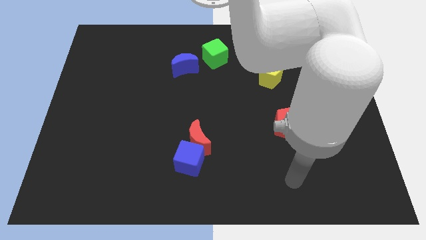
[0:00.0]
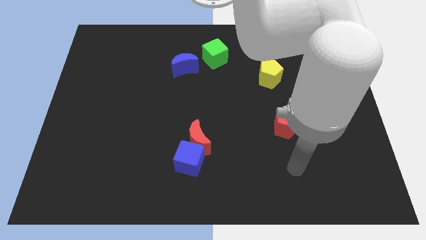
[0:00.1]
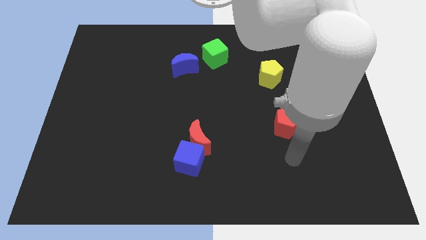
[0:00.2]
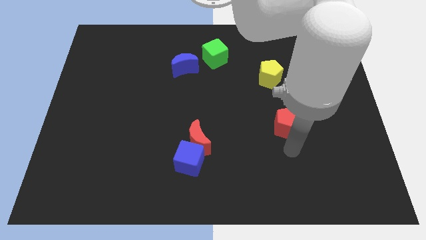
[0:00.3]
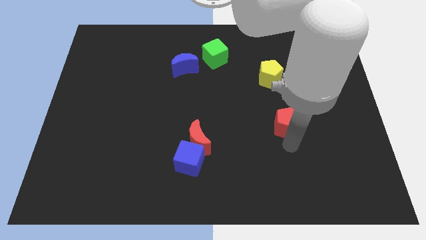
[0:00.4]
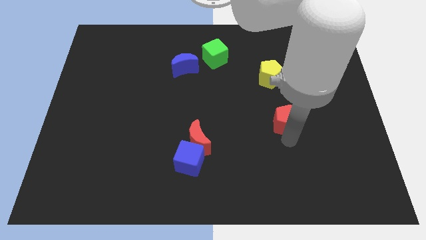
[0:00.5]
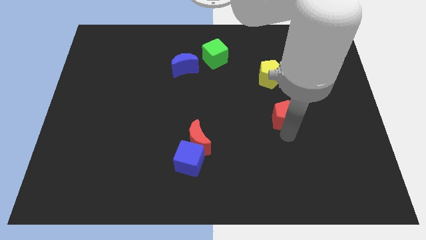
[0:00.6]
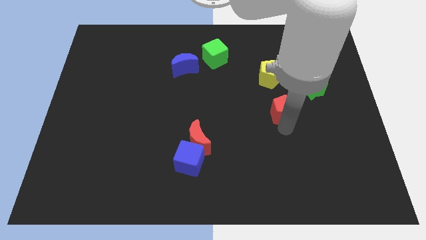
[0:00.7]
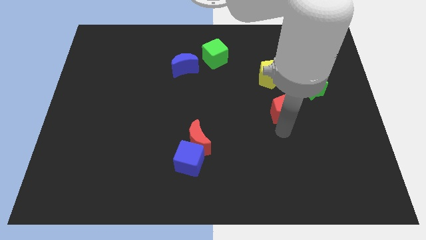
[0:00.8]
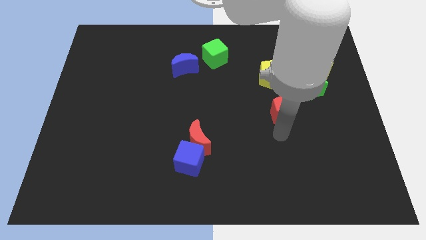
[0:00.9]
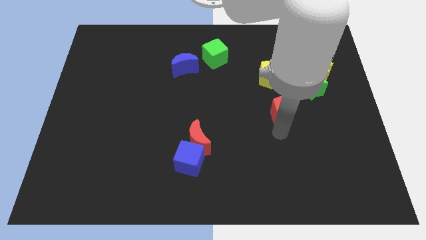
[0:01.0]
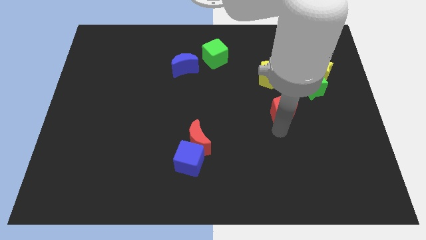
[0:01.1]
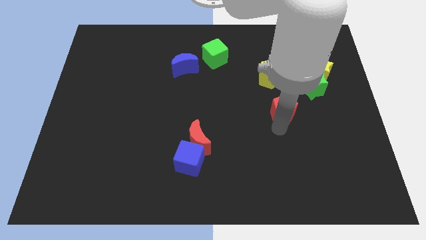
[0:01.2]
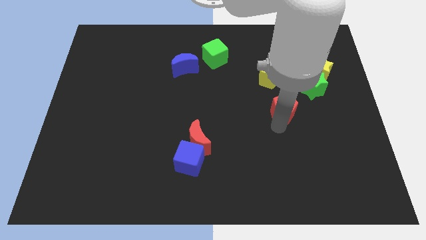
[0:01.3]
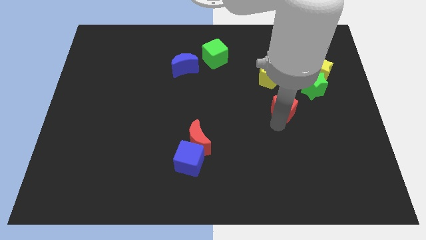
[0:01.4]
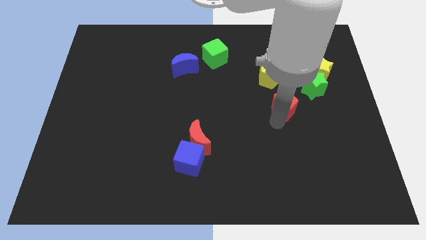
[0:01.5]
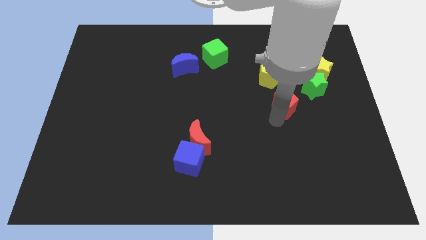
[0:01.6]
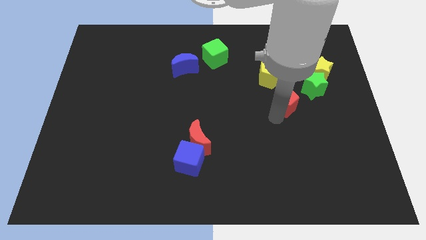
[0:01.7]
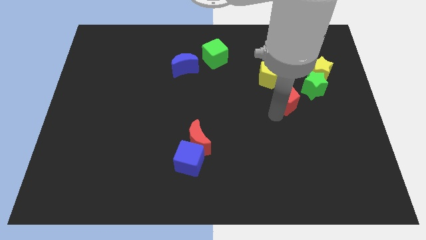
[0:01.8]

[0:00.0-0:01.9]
move the red pentagon upwards somewhat

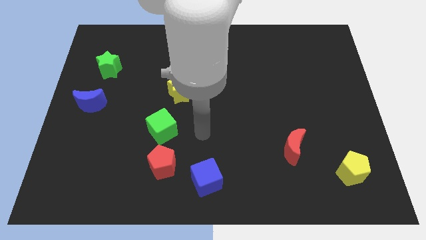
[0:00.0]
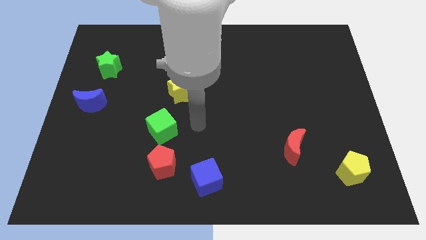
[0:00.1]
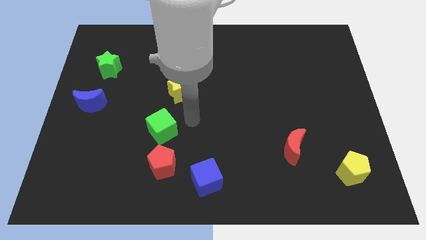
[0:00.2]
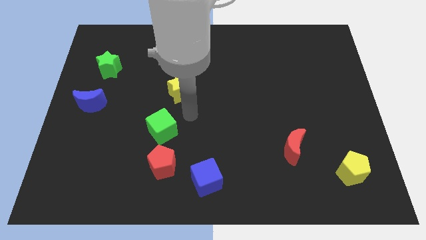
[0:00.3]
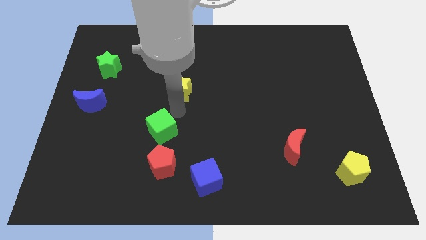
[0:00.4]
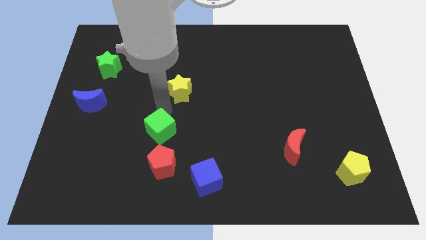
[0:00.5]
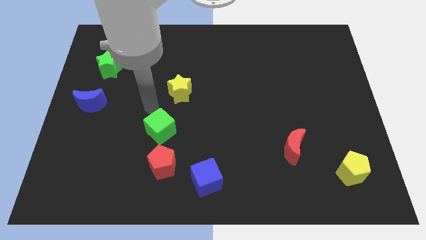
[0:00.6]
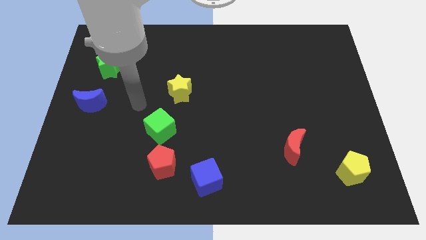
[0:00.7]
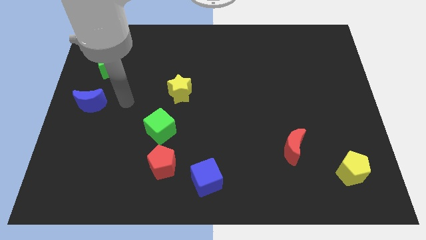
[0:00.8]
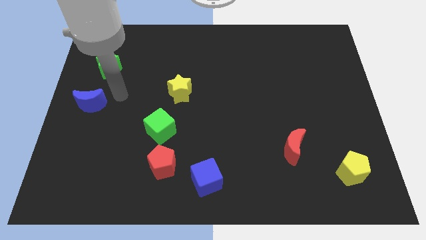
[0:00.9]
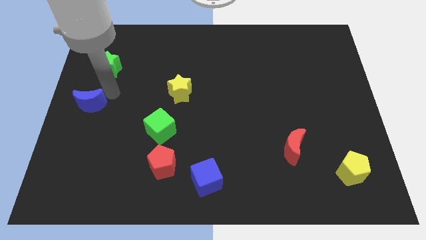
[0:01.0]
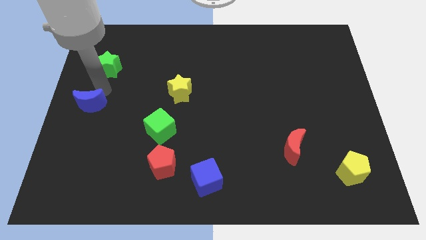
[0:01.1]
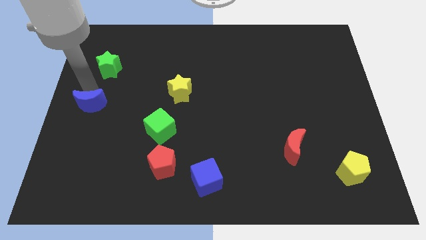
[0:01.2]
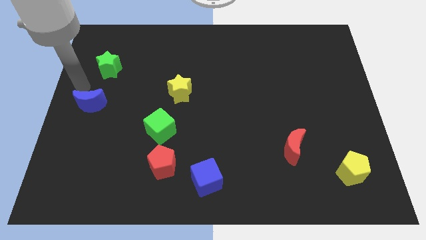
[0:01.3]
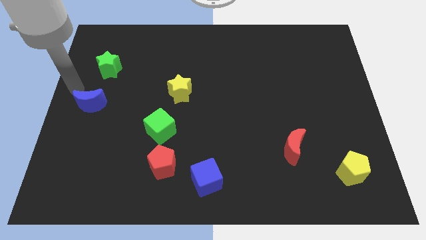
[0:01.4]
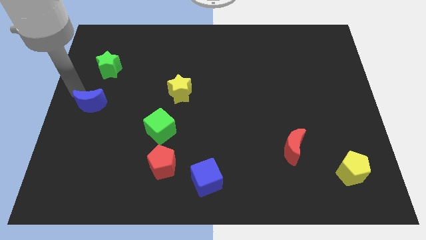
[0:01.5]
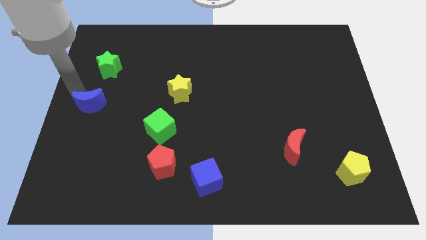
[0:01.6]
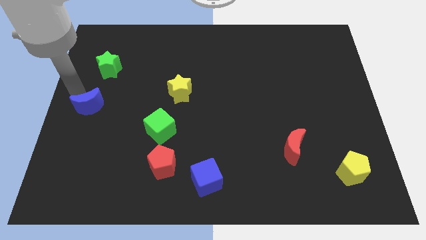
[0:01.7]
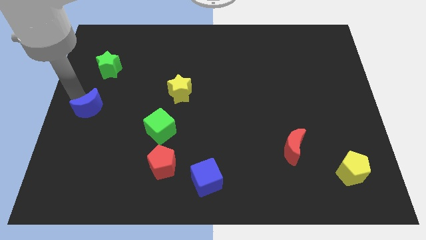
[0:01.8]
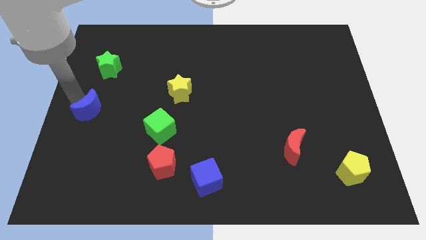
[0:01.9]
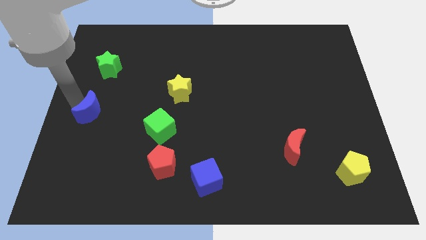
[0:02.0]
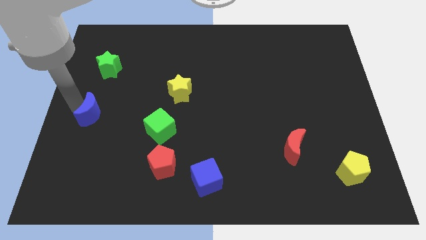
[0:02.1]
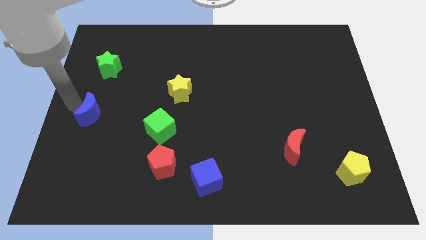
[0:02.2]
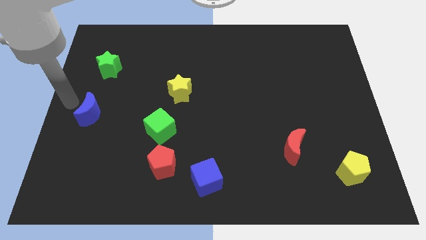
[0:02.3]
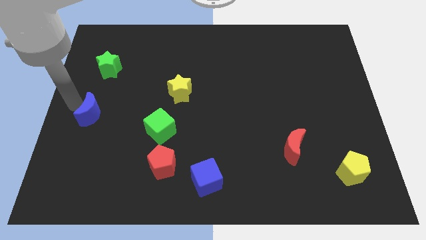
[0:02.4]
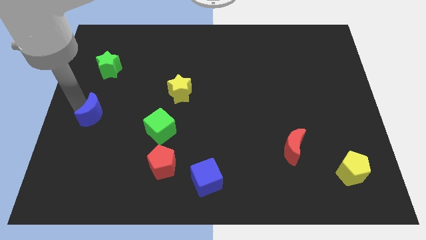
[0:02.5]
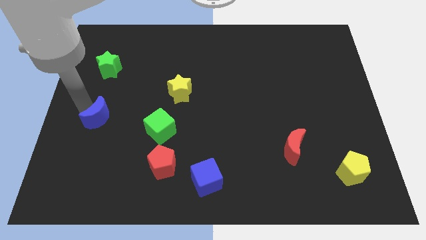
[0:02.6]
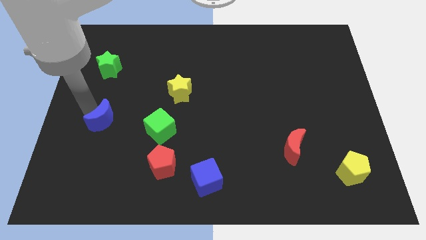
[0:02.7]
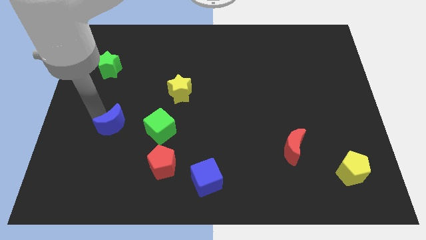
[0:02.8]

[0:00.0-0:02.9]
slightly push the blue moon downwards and then to the right

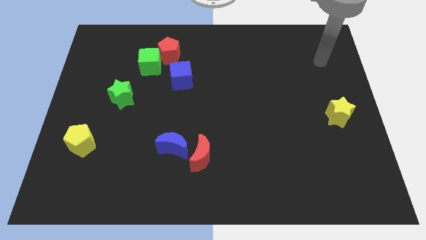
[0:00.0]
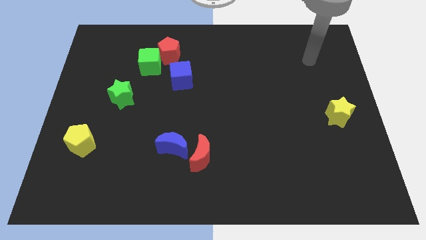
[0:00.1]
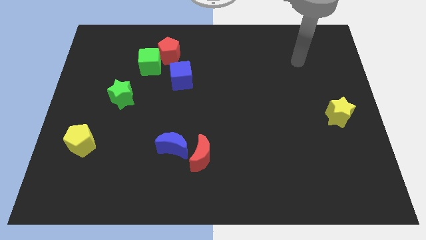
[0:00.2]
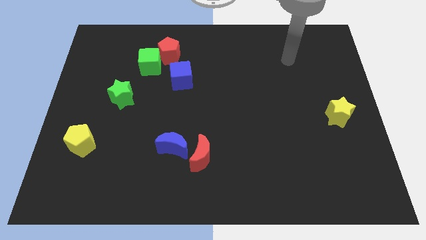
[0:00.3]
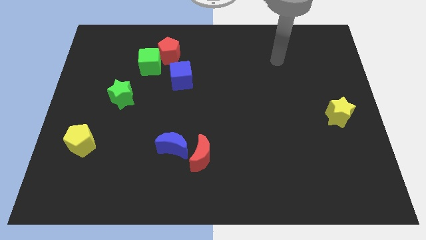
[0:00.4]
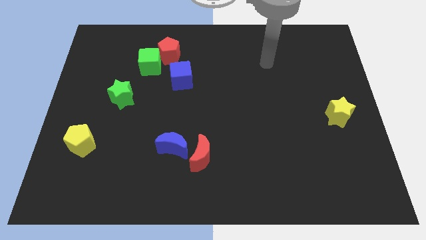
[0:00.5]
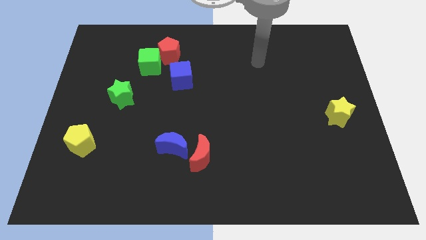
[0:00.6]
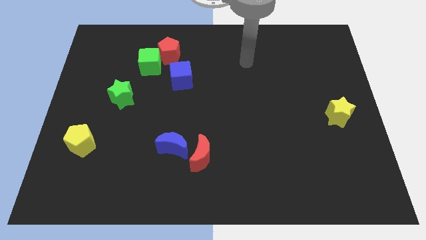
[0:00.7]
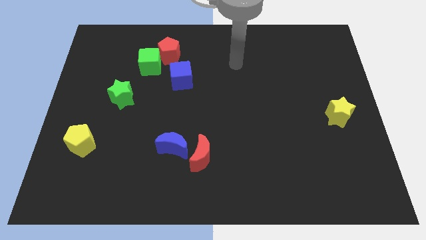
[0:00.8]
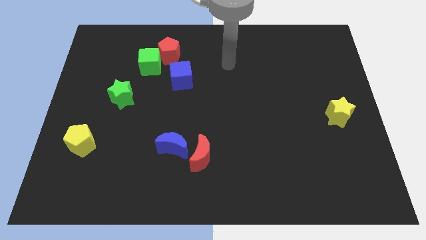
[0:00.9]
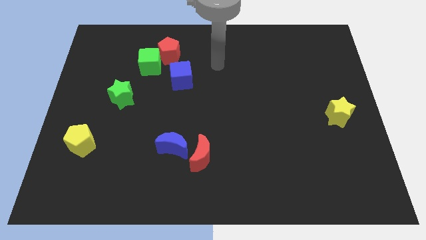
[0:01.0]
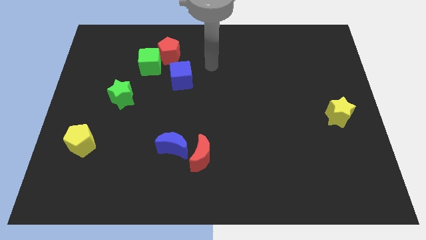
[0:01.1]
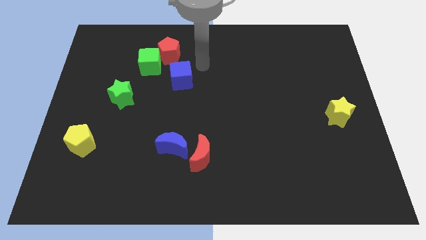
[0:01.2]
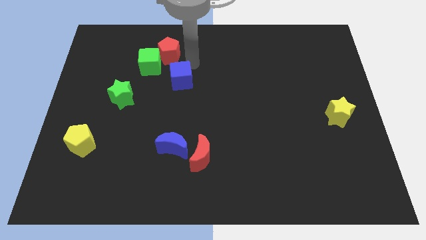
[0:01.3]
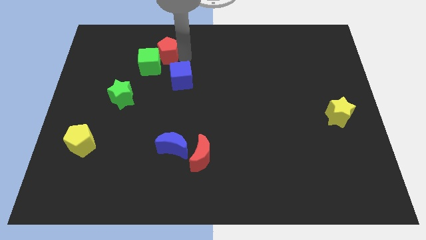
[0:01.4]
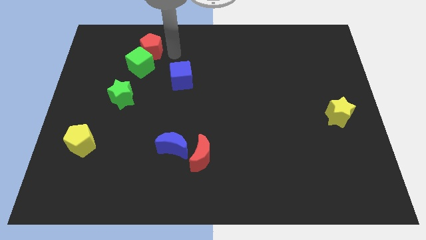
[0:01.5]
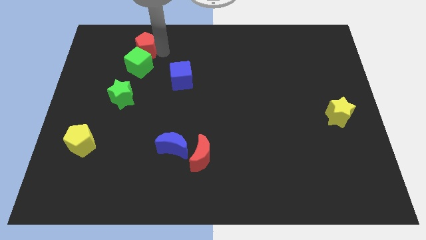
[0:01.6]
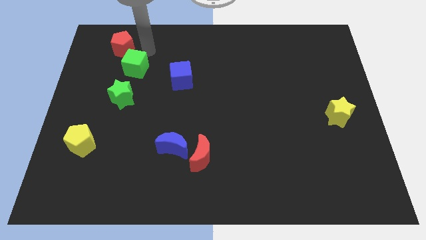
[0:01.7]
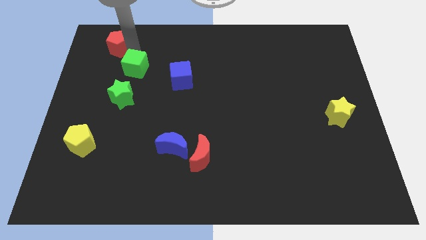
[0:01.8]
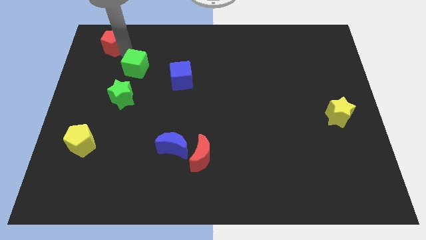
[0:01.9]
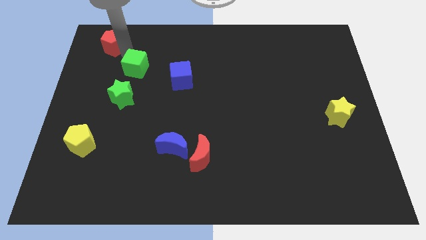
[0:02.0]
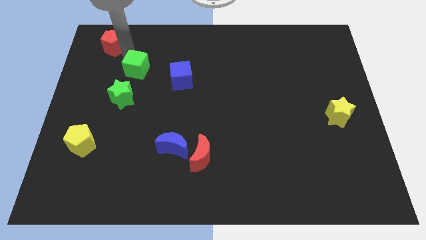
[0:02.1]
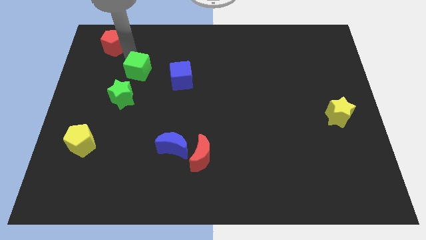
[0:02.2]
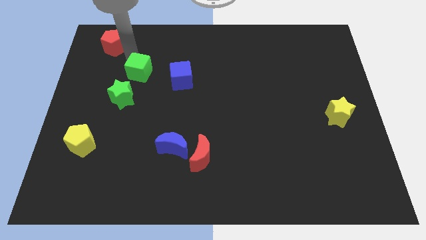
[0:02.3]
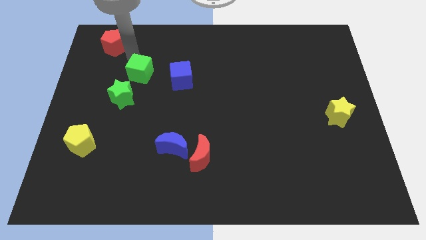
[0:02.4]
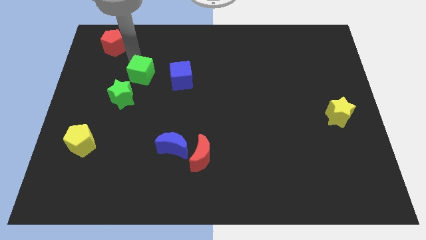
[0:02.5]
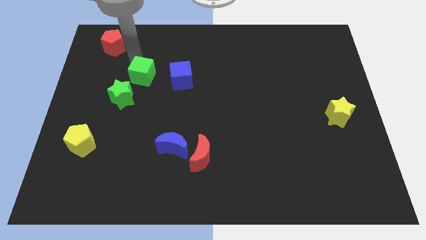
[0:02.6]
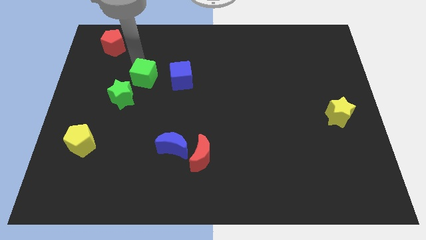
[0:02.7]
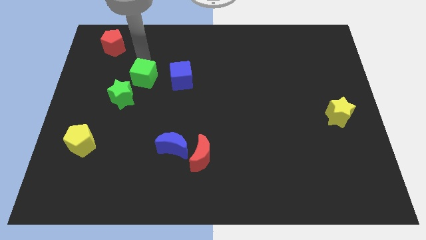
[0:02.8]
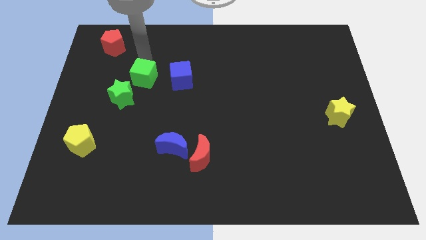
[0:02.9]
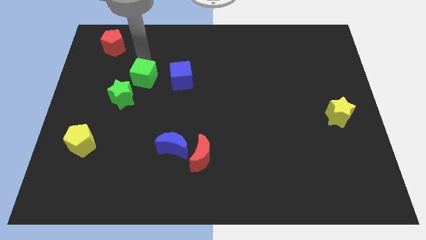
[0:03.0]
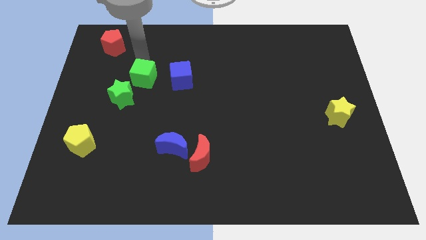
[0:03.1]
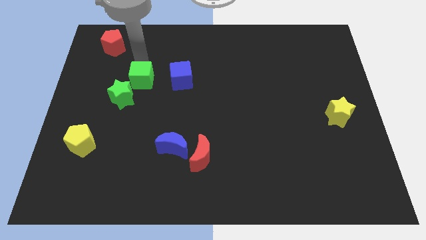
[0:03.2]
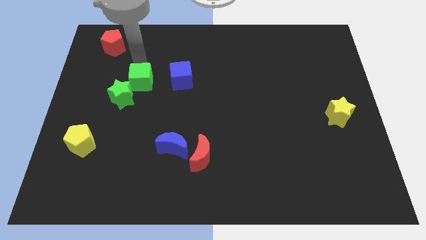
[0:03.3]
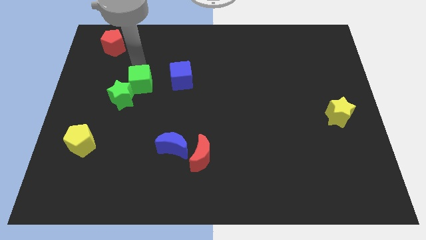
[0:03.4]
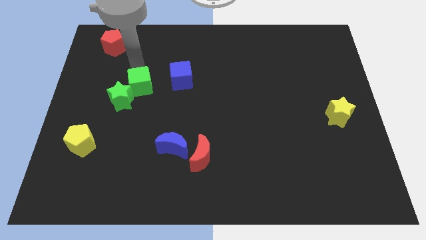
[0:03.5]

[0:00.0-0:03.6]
slightly move the green cube down
